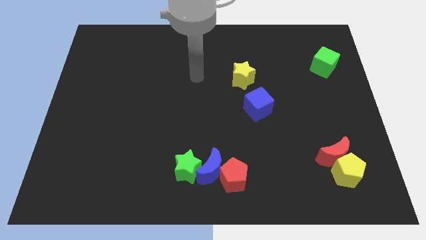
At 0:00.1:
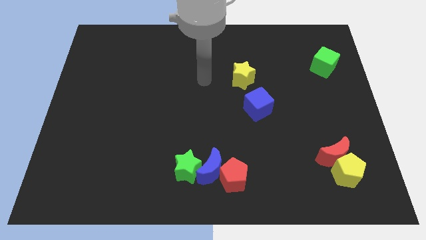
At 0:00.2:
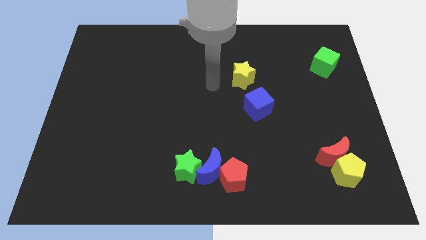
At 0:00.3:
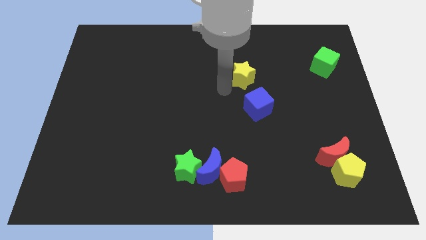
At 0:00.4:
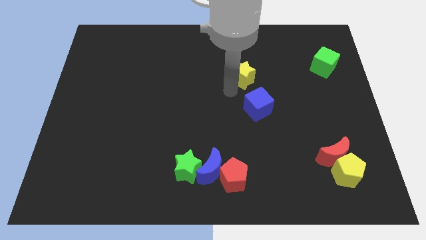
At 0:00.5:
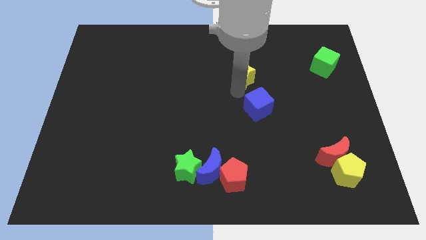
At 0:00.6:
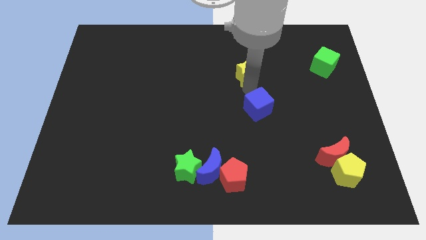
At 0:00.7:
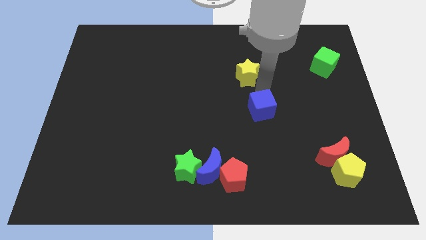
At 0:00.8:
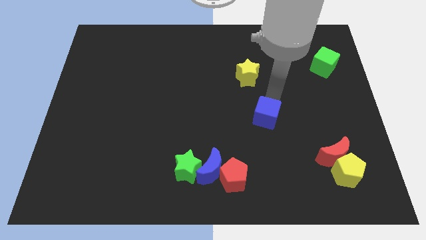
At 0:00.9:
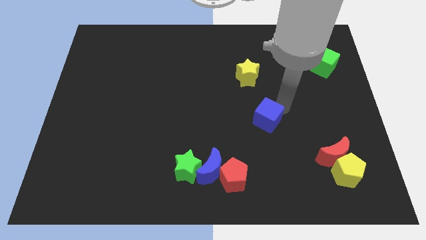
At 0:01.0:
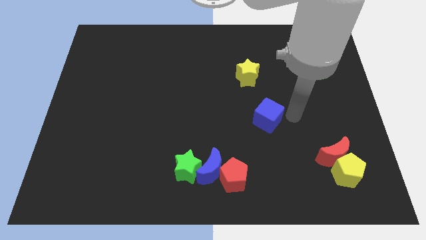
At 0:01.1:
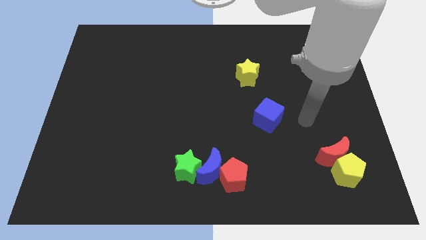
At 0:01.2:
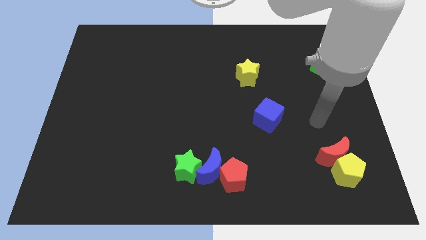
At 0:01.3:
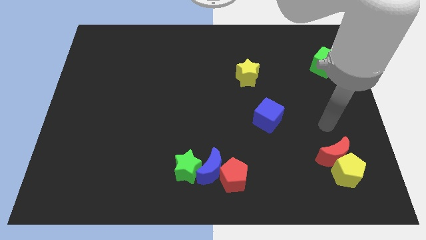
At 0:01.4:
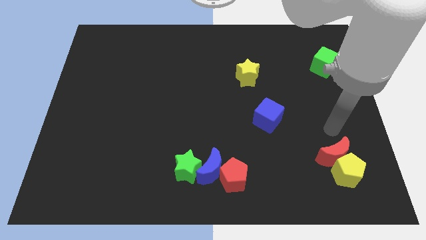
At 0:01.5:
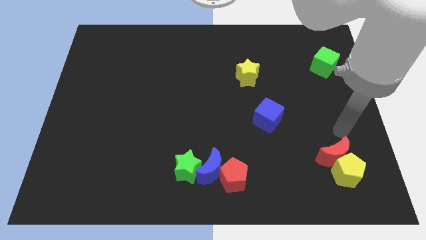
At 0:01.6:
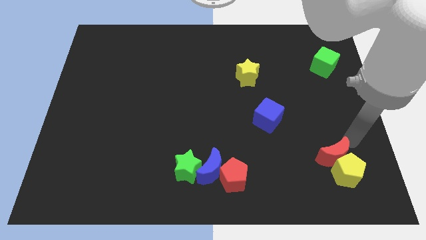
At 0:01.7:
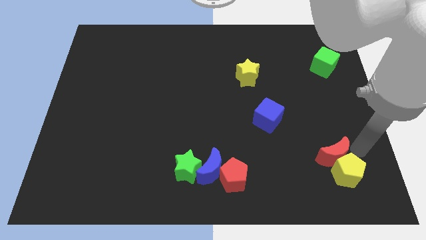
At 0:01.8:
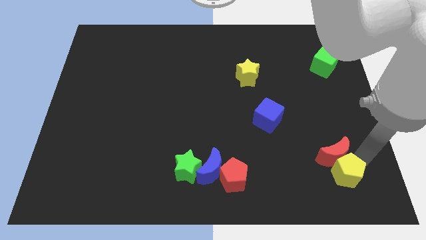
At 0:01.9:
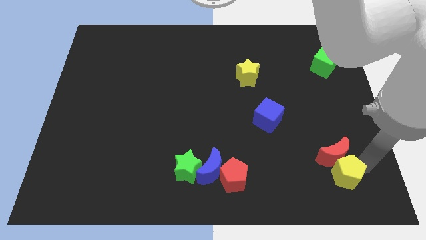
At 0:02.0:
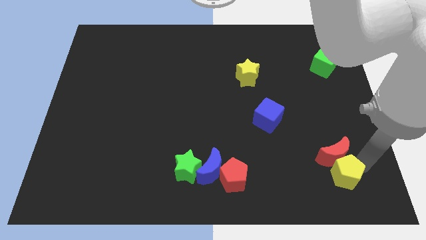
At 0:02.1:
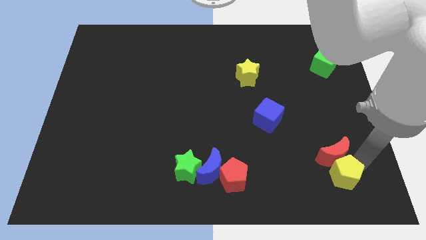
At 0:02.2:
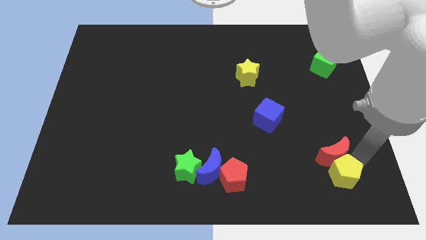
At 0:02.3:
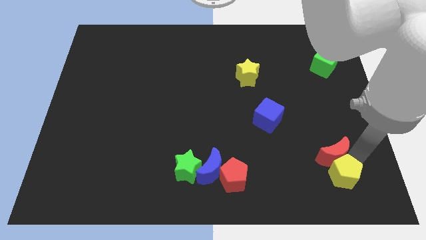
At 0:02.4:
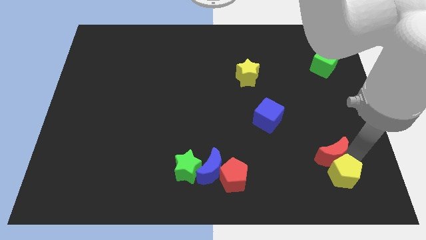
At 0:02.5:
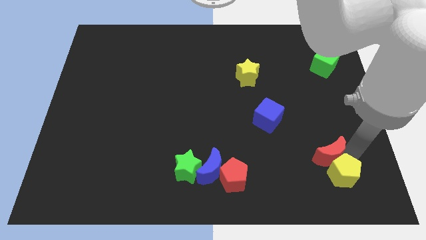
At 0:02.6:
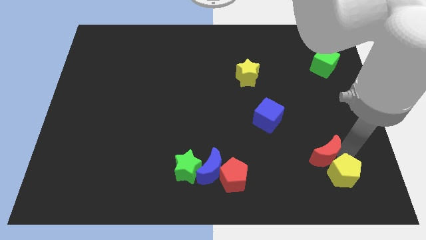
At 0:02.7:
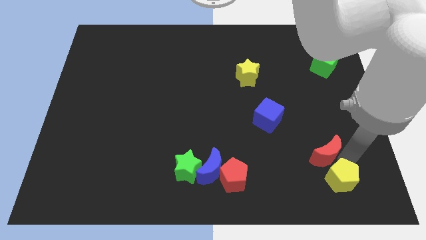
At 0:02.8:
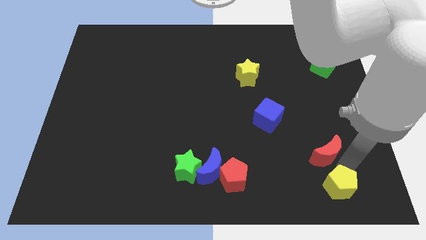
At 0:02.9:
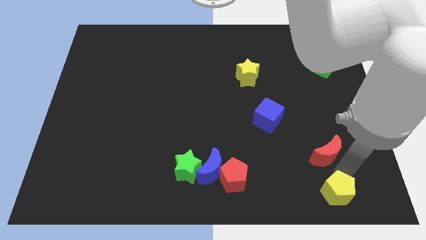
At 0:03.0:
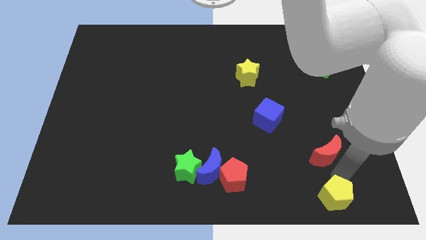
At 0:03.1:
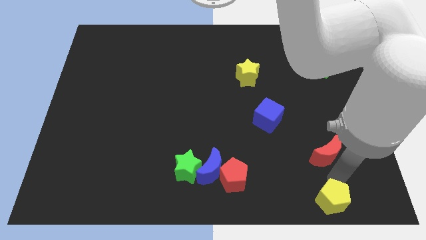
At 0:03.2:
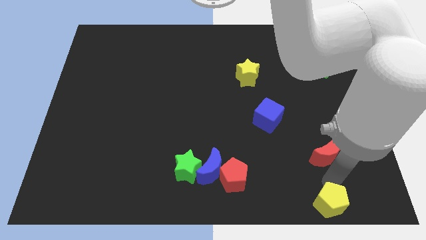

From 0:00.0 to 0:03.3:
separate the red moon from the yellow pentagon

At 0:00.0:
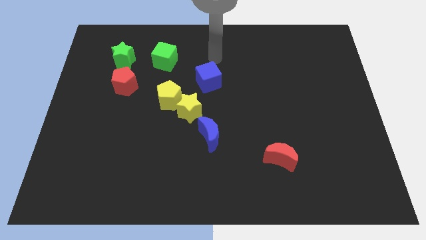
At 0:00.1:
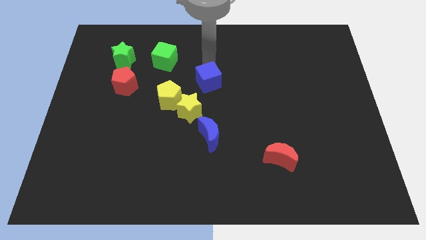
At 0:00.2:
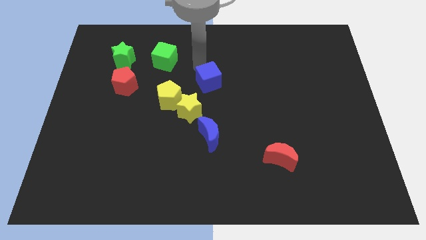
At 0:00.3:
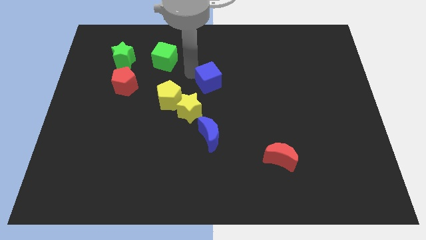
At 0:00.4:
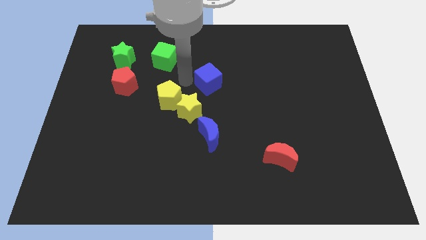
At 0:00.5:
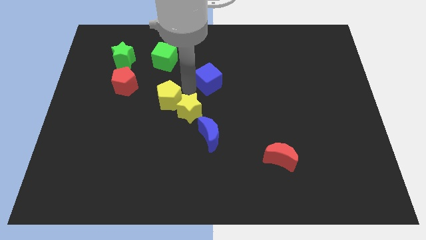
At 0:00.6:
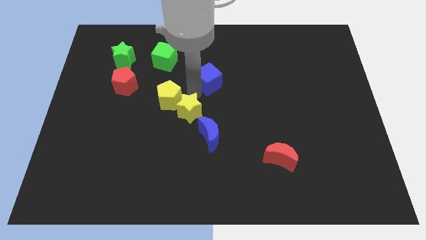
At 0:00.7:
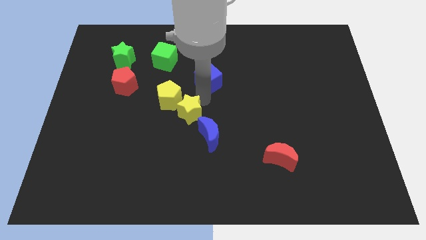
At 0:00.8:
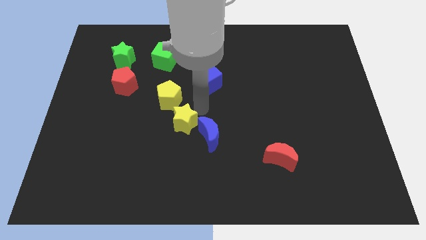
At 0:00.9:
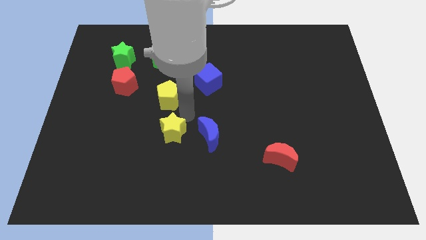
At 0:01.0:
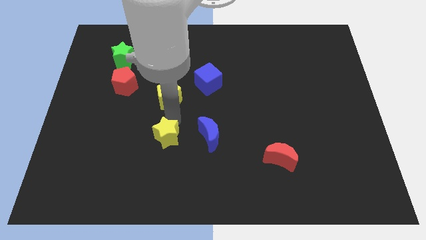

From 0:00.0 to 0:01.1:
pull the yellow pentagon apart from the yellow star

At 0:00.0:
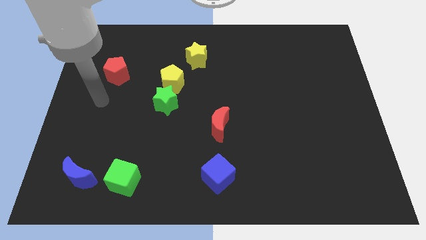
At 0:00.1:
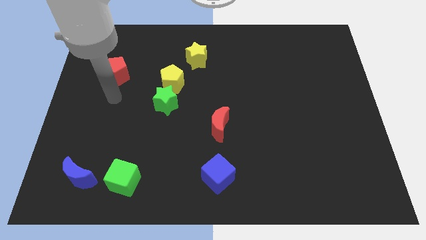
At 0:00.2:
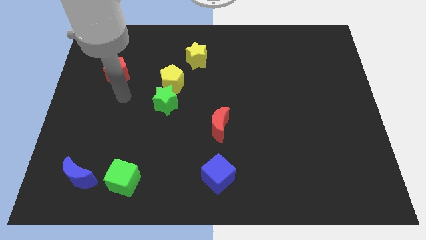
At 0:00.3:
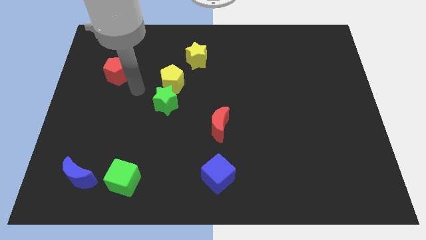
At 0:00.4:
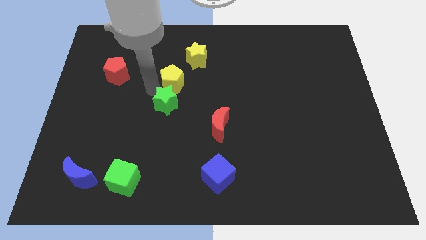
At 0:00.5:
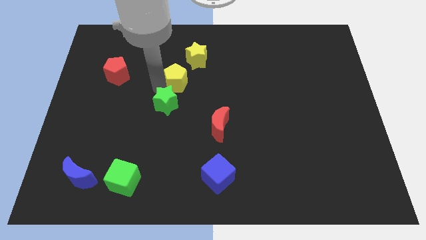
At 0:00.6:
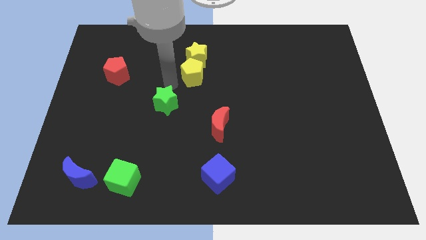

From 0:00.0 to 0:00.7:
move the green star away from the yellow pentagon

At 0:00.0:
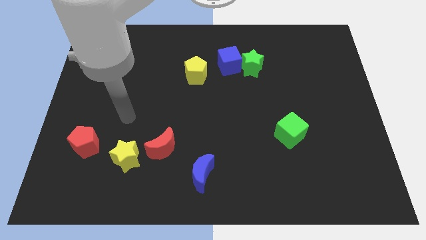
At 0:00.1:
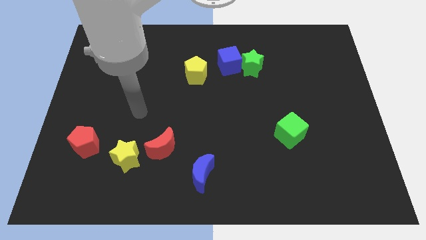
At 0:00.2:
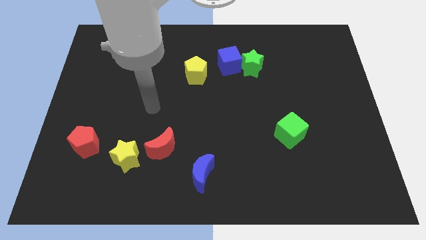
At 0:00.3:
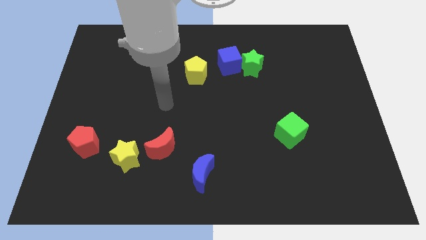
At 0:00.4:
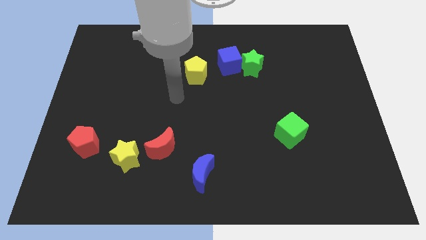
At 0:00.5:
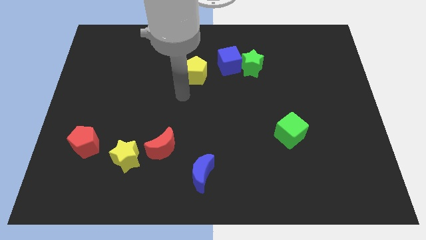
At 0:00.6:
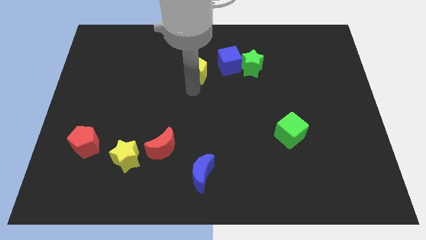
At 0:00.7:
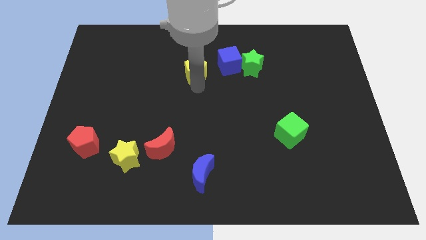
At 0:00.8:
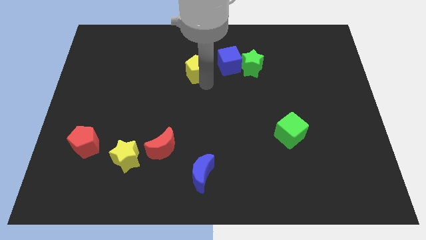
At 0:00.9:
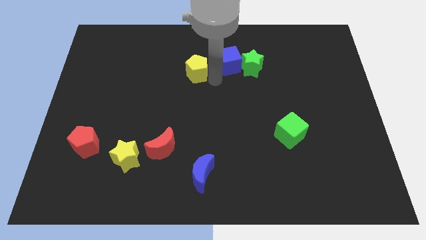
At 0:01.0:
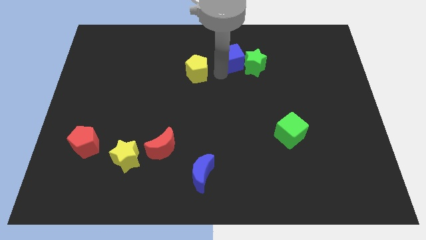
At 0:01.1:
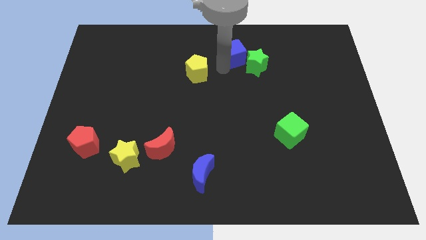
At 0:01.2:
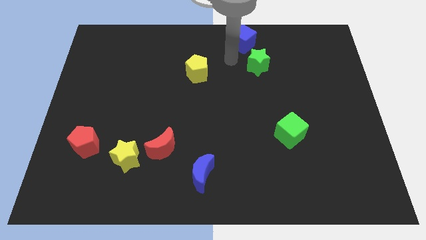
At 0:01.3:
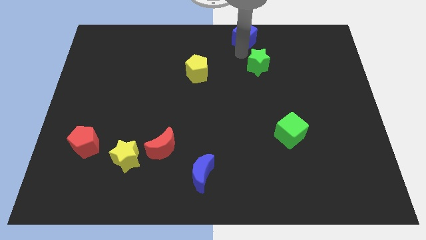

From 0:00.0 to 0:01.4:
separate the green star from the blue cube

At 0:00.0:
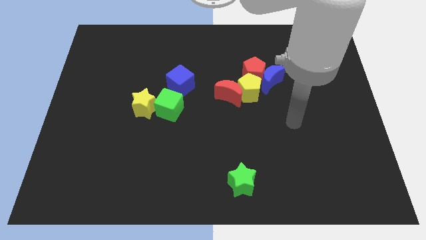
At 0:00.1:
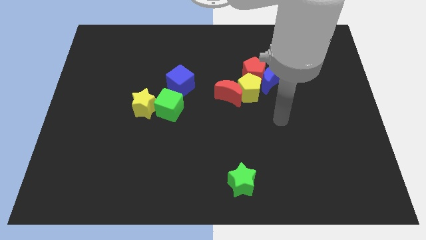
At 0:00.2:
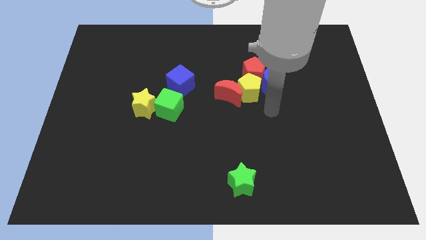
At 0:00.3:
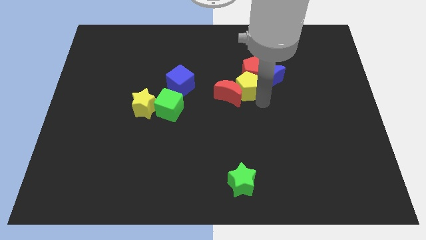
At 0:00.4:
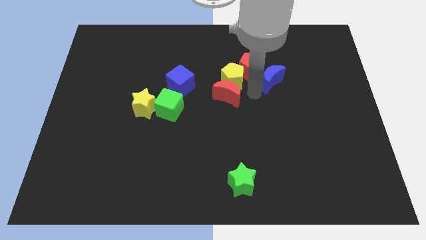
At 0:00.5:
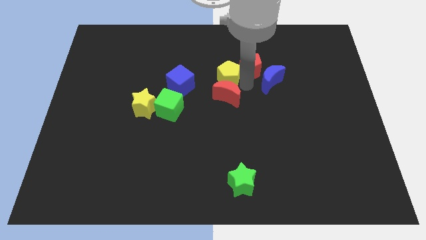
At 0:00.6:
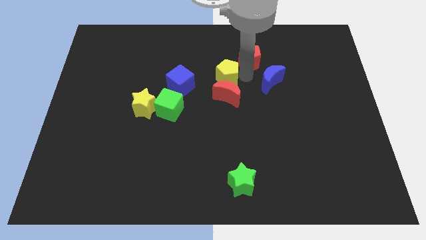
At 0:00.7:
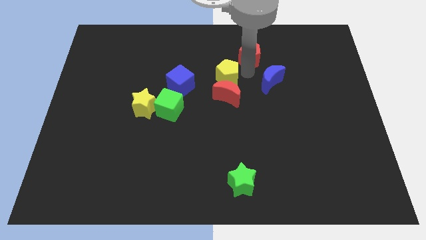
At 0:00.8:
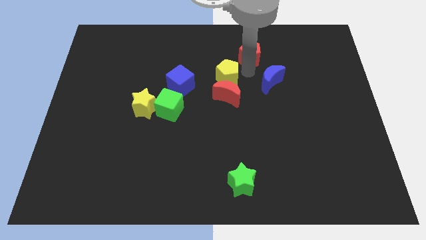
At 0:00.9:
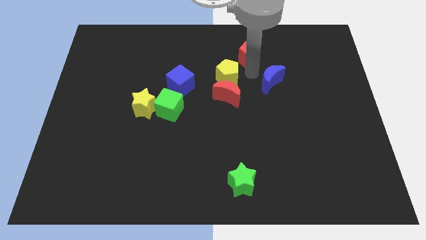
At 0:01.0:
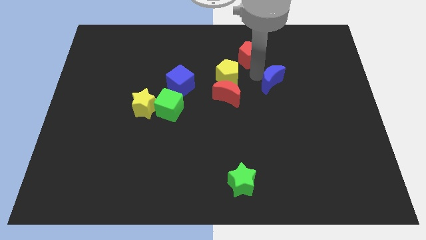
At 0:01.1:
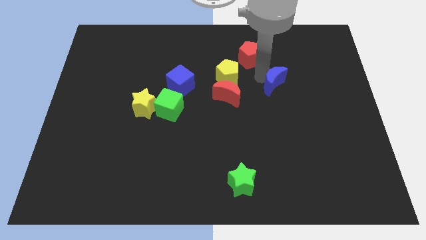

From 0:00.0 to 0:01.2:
pull the blue moon apart from the red pentagon and yellow pentagon

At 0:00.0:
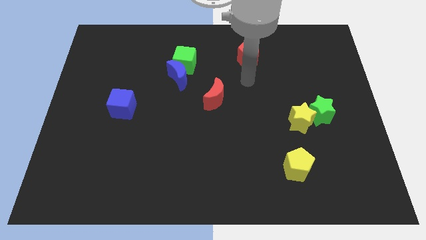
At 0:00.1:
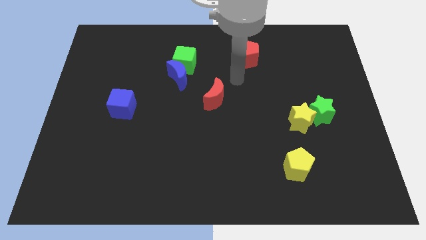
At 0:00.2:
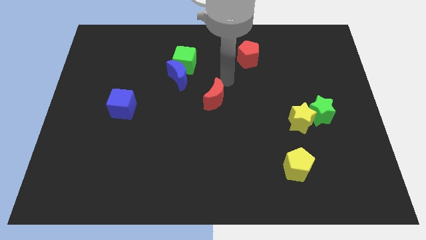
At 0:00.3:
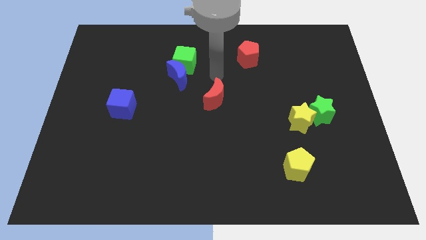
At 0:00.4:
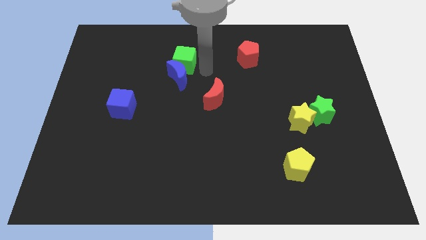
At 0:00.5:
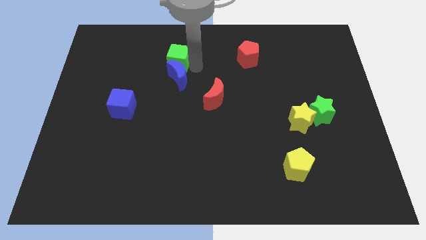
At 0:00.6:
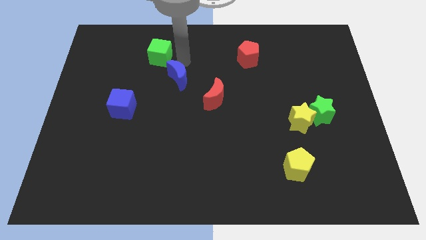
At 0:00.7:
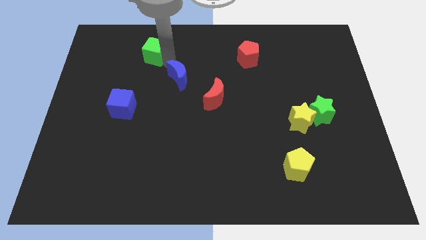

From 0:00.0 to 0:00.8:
pull the blue moon apart from the green cube

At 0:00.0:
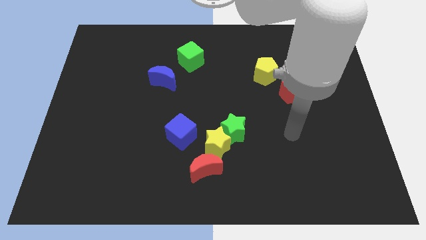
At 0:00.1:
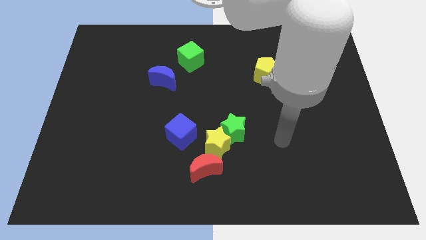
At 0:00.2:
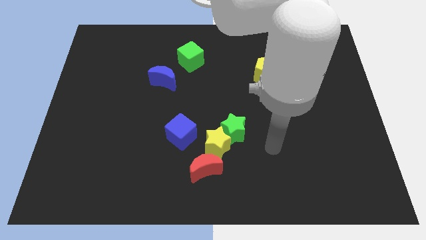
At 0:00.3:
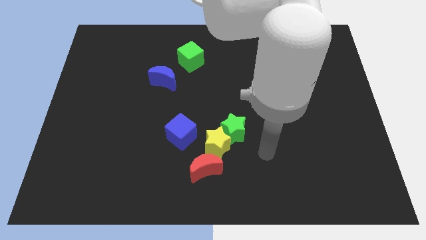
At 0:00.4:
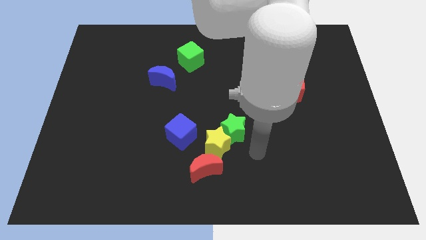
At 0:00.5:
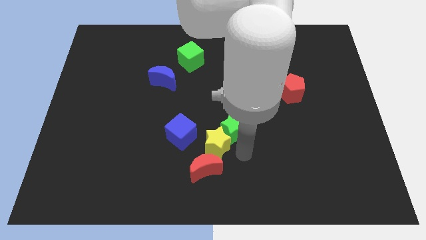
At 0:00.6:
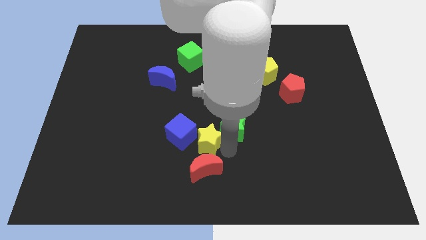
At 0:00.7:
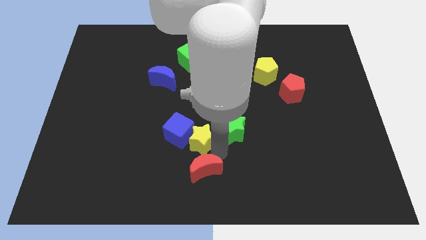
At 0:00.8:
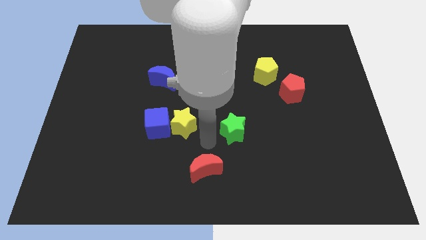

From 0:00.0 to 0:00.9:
move the green star away from the yellow star

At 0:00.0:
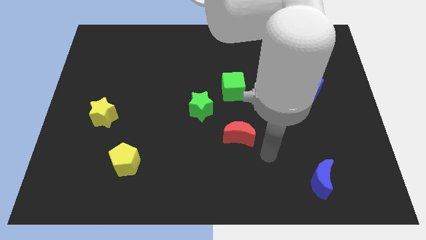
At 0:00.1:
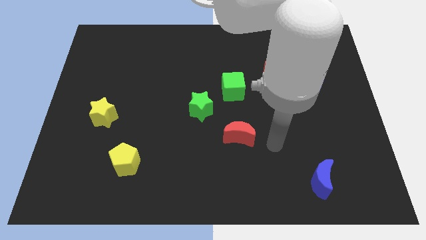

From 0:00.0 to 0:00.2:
move the red pentagon away from the blue cube
